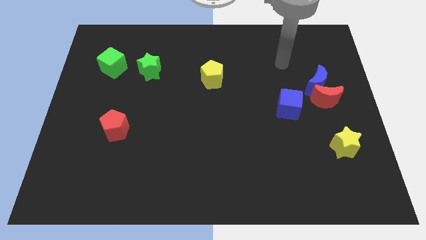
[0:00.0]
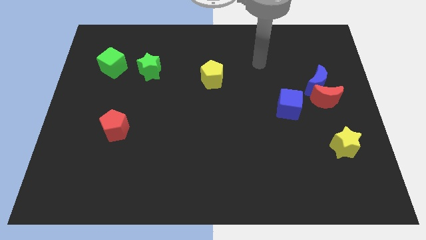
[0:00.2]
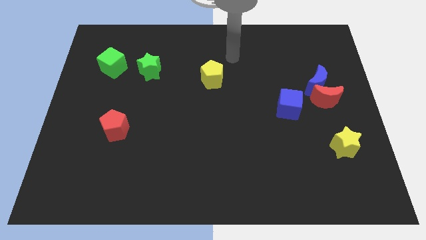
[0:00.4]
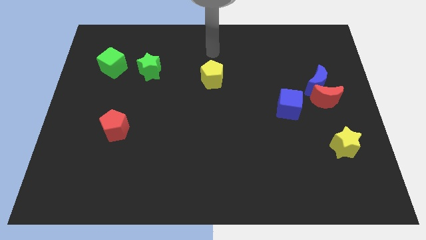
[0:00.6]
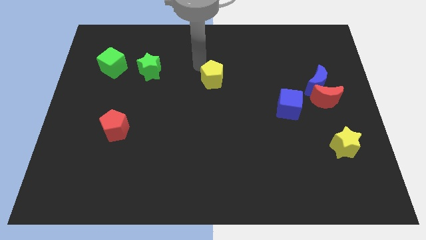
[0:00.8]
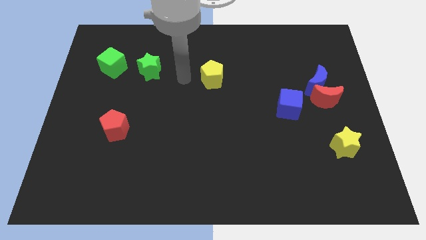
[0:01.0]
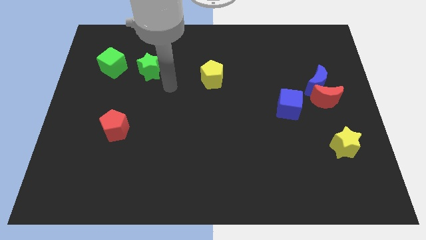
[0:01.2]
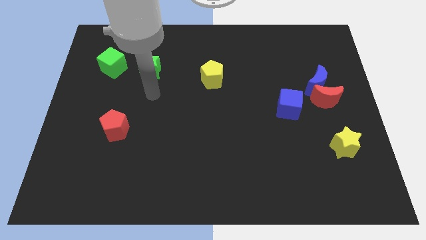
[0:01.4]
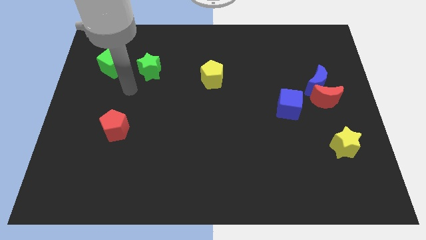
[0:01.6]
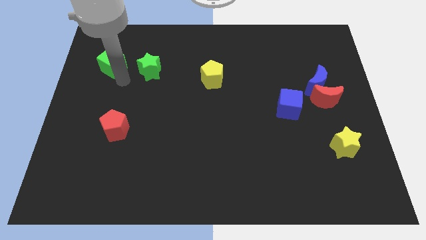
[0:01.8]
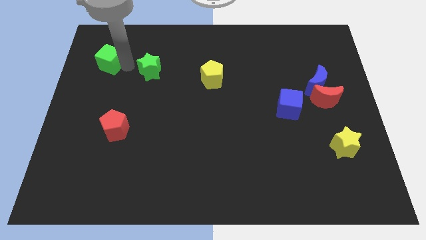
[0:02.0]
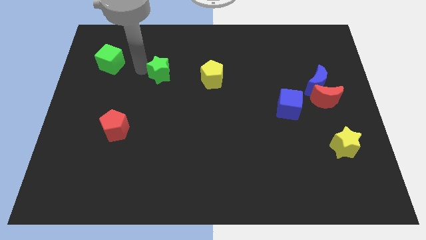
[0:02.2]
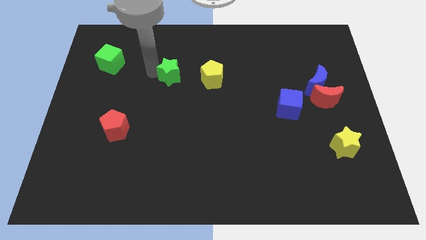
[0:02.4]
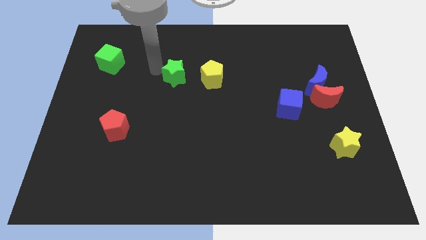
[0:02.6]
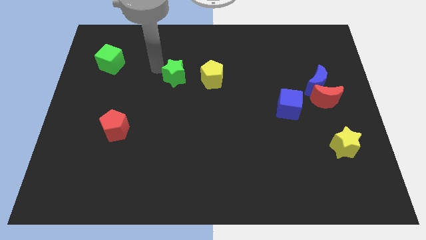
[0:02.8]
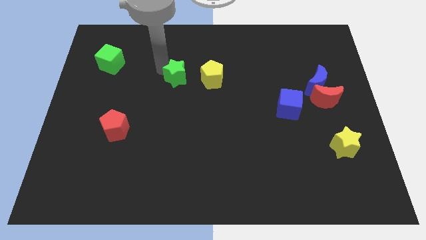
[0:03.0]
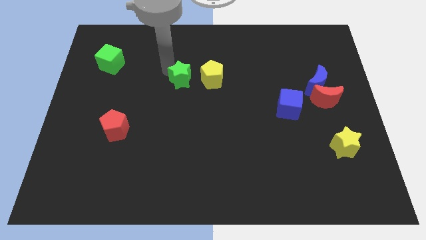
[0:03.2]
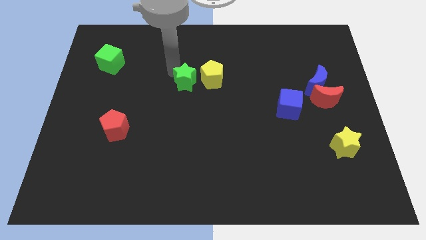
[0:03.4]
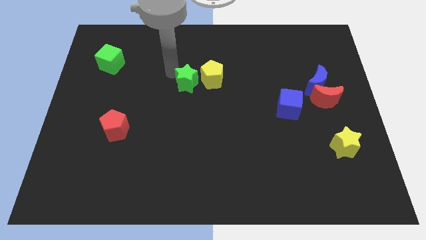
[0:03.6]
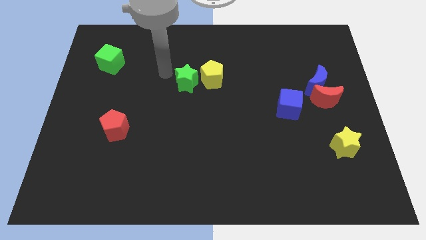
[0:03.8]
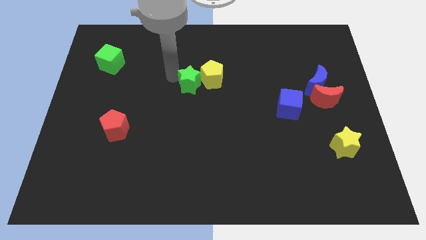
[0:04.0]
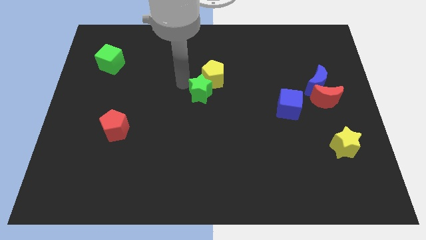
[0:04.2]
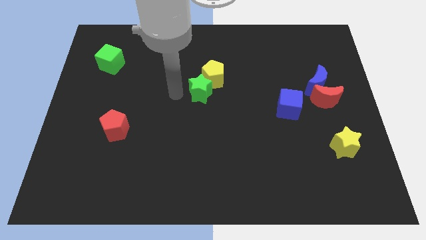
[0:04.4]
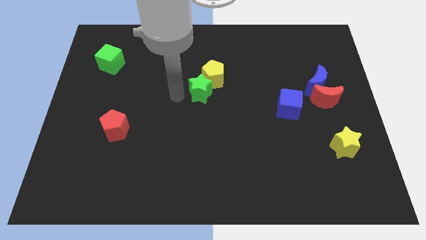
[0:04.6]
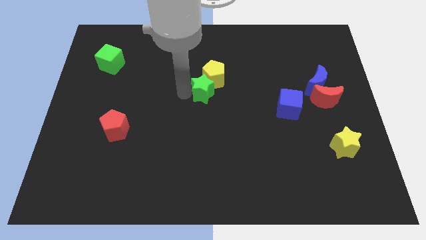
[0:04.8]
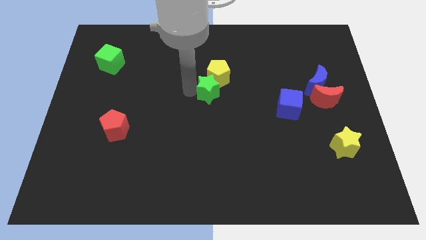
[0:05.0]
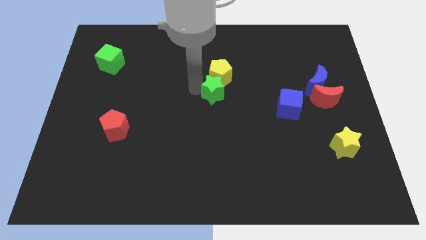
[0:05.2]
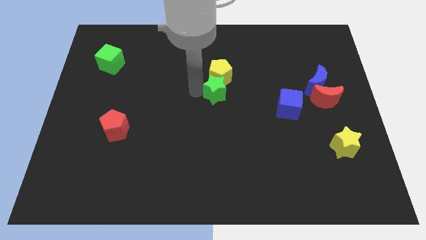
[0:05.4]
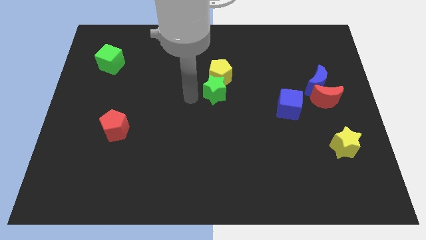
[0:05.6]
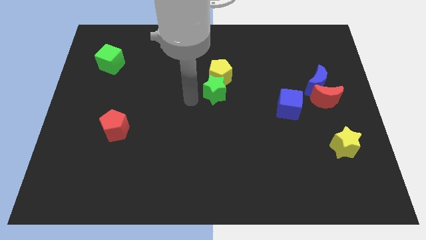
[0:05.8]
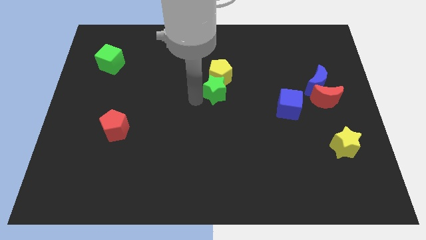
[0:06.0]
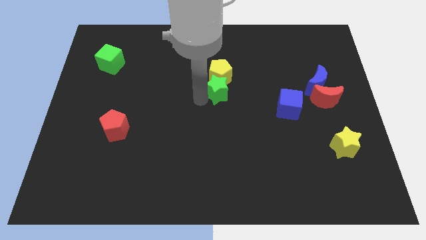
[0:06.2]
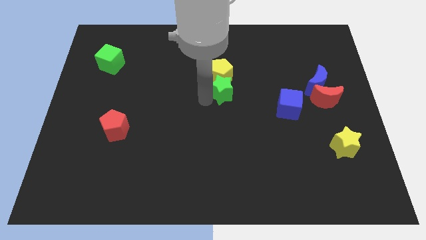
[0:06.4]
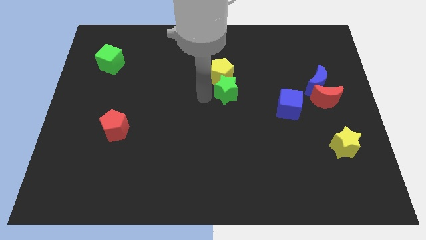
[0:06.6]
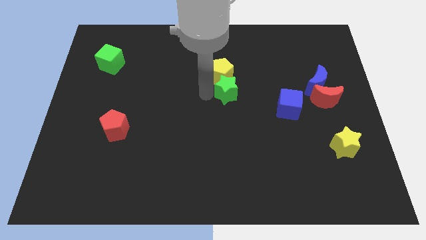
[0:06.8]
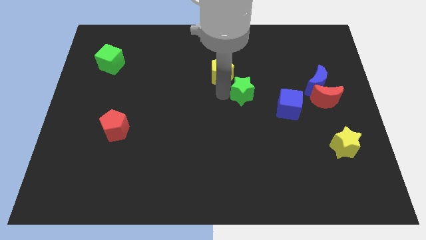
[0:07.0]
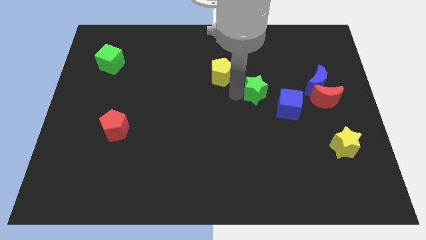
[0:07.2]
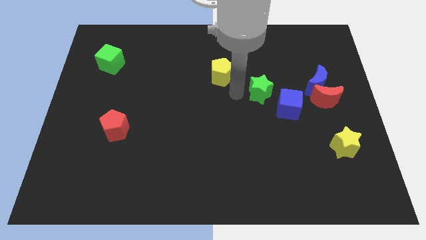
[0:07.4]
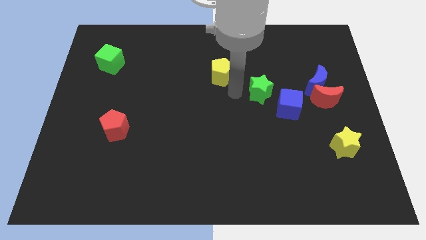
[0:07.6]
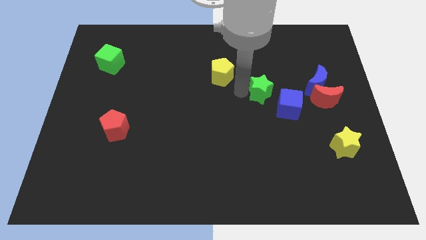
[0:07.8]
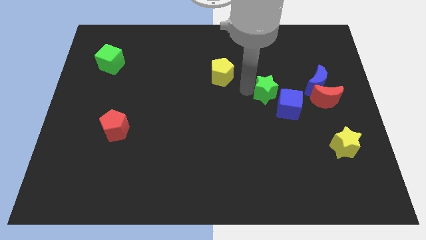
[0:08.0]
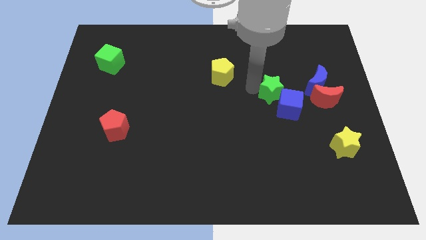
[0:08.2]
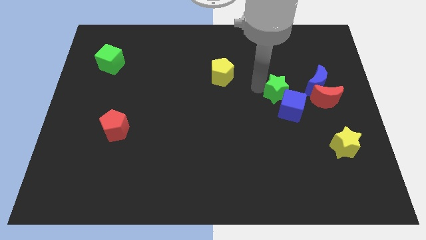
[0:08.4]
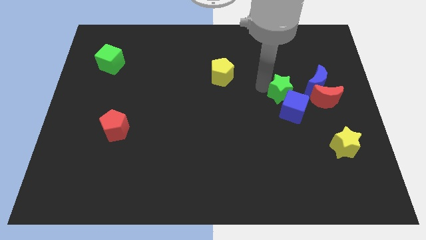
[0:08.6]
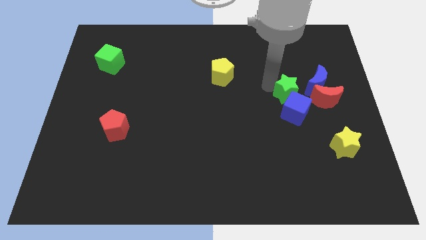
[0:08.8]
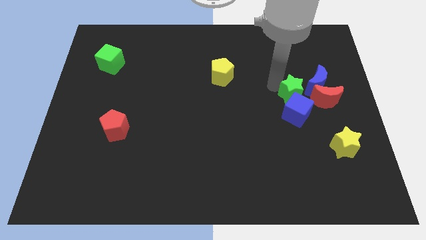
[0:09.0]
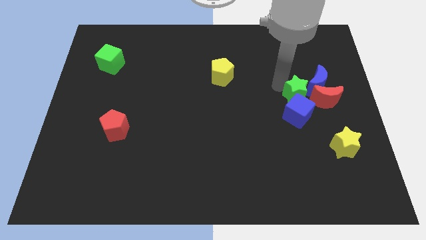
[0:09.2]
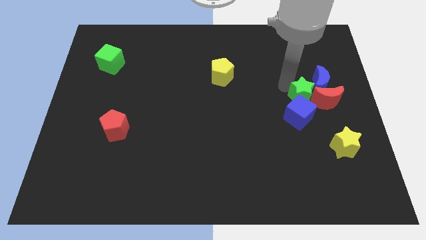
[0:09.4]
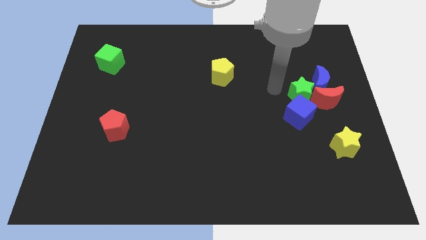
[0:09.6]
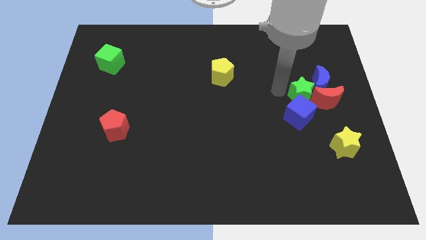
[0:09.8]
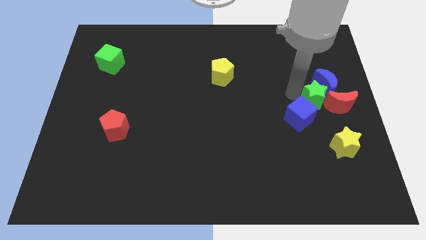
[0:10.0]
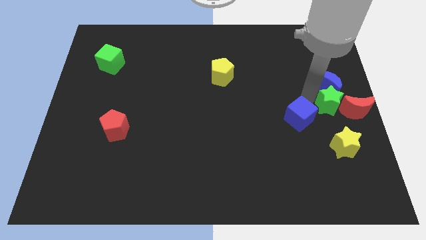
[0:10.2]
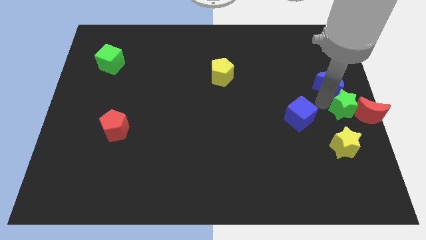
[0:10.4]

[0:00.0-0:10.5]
move the green star next to the red moon

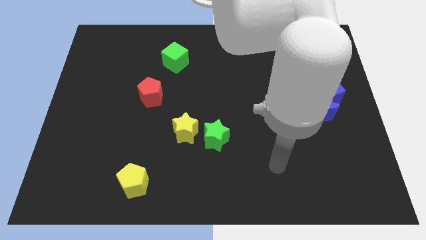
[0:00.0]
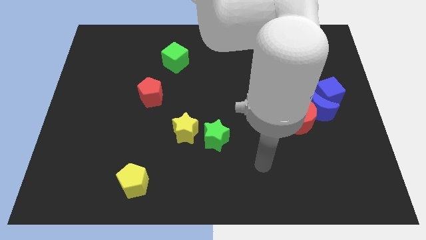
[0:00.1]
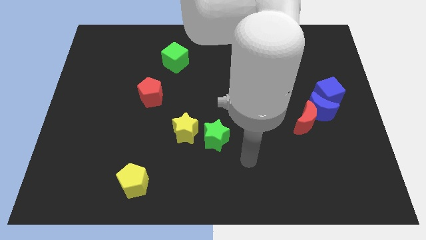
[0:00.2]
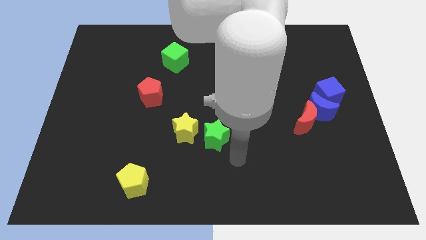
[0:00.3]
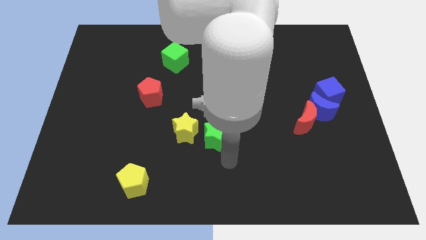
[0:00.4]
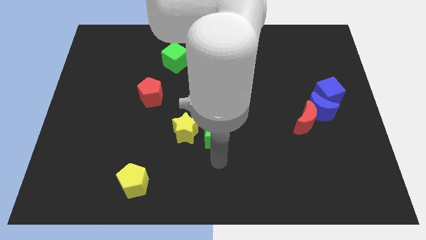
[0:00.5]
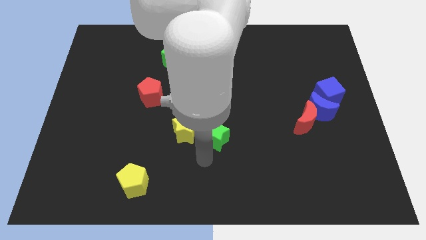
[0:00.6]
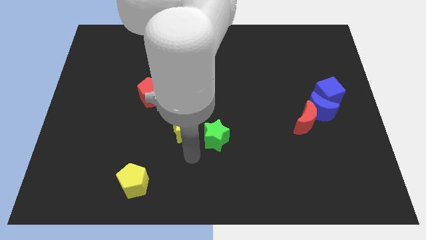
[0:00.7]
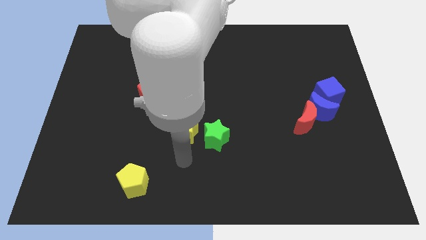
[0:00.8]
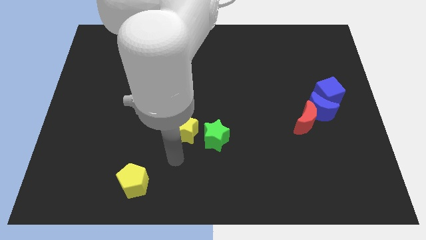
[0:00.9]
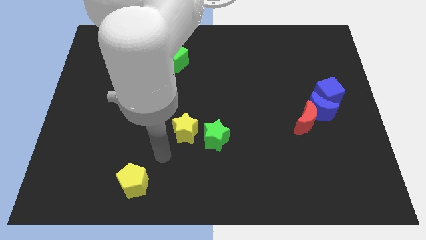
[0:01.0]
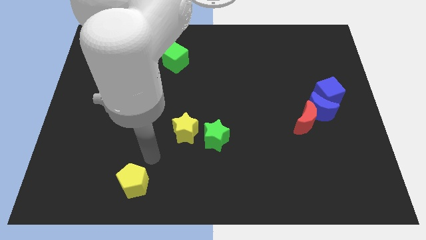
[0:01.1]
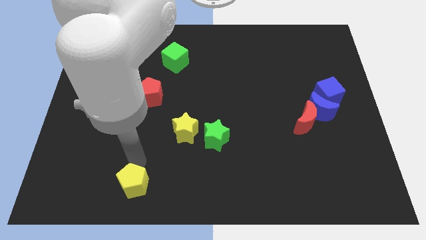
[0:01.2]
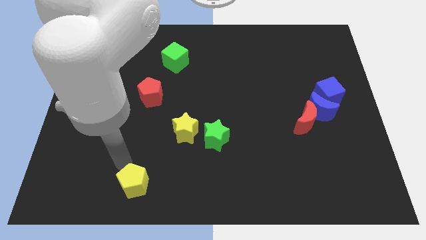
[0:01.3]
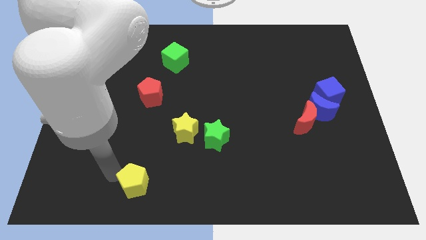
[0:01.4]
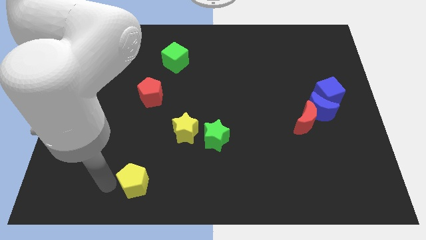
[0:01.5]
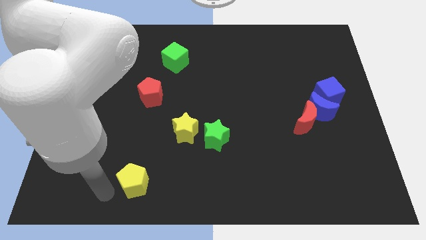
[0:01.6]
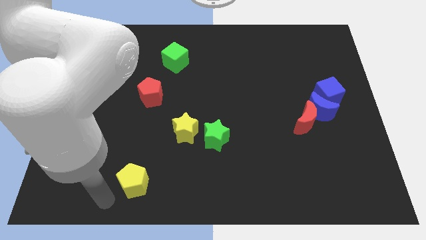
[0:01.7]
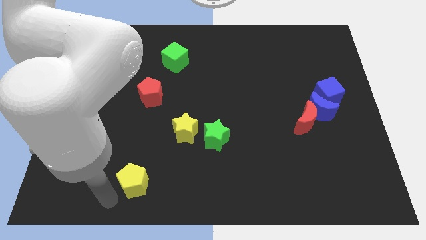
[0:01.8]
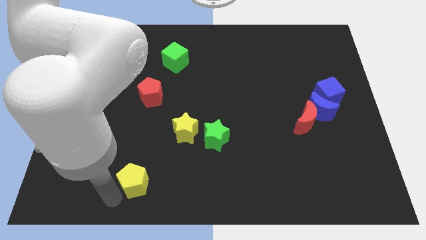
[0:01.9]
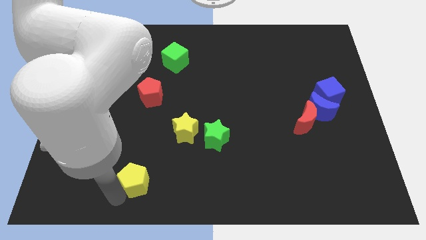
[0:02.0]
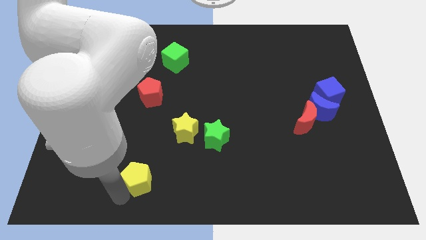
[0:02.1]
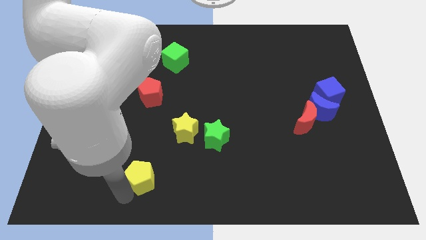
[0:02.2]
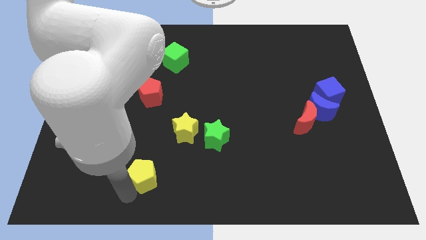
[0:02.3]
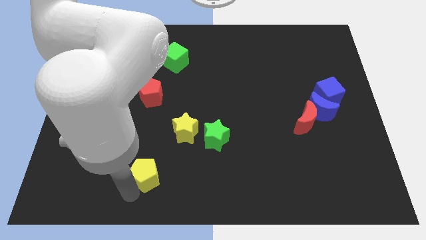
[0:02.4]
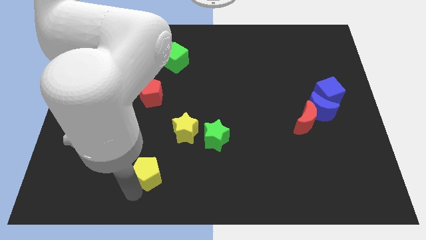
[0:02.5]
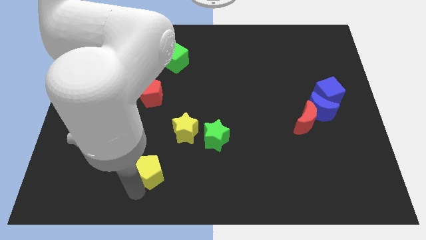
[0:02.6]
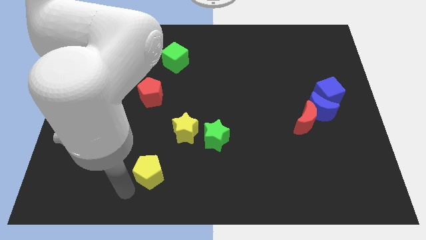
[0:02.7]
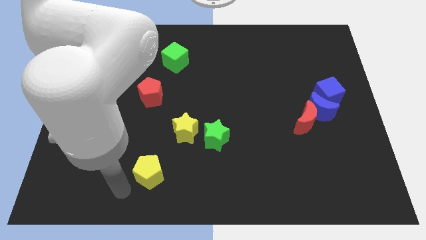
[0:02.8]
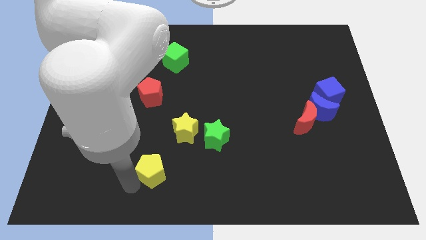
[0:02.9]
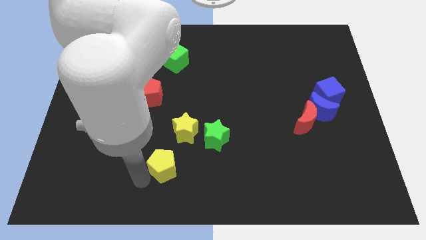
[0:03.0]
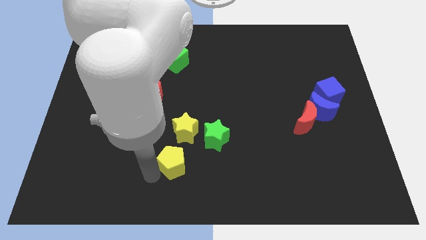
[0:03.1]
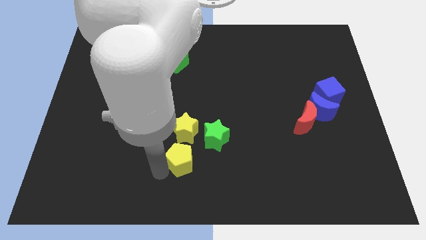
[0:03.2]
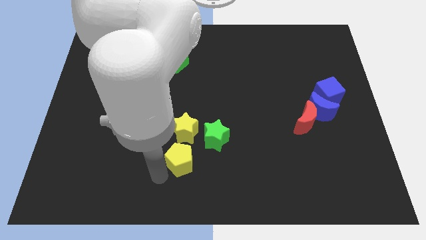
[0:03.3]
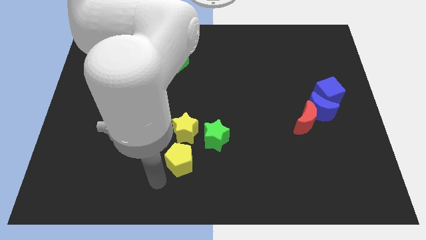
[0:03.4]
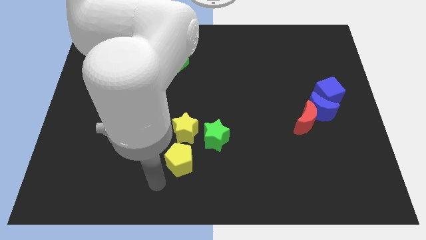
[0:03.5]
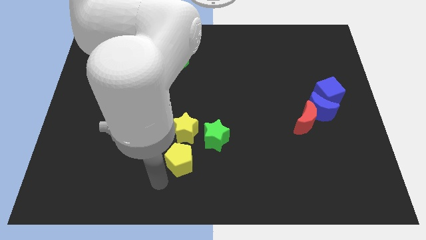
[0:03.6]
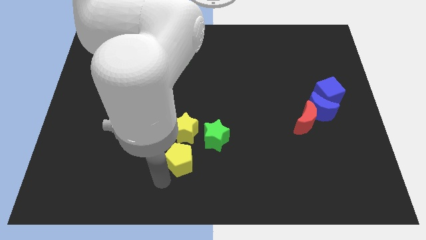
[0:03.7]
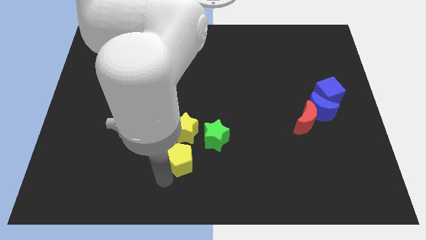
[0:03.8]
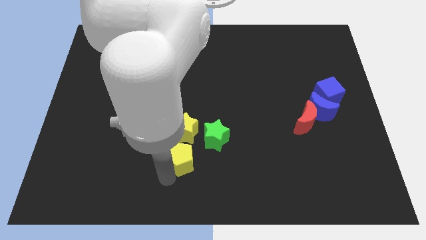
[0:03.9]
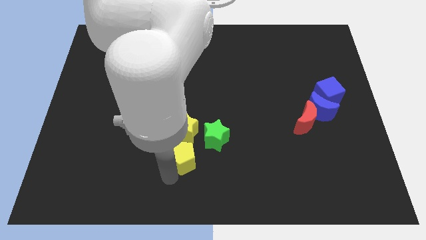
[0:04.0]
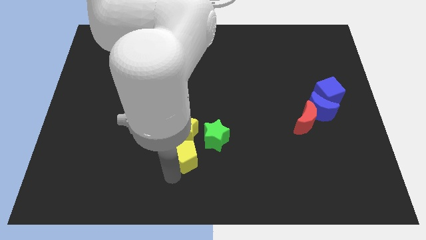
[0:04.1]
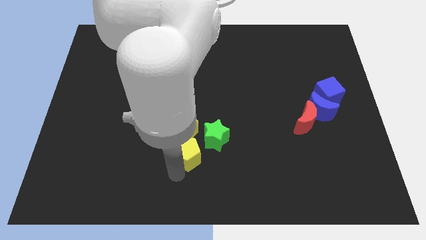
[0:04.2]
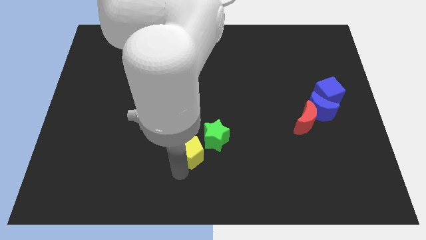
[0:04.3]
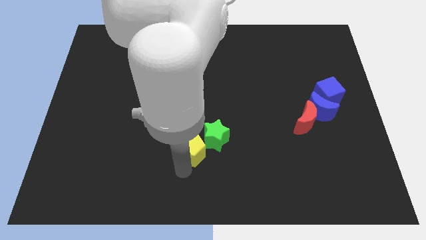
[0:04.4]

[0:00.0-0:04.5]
move the yellow pentagon next to the green star
